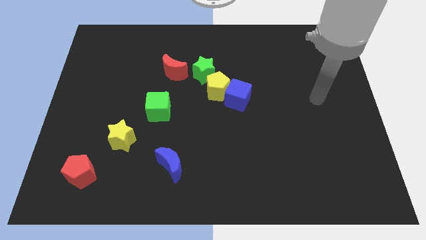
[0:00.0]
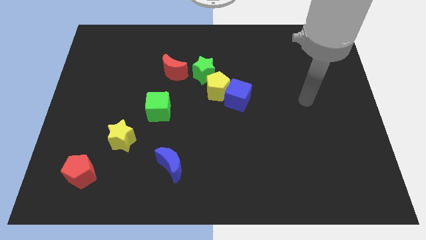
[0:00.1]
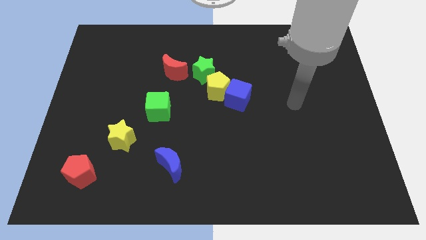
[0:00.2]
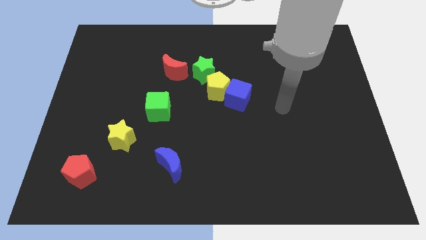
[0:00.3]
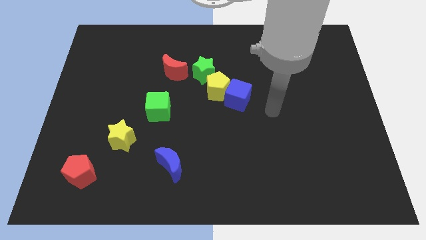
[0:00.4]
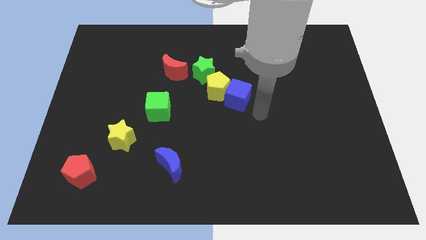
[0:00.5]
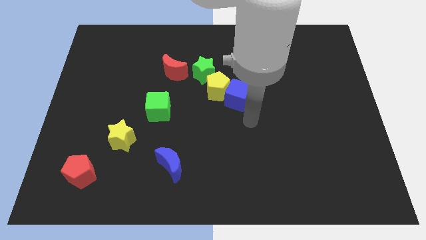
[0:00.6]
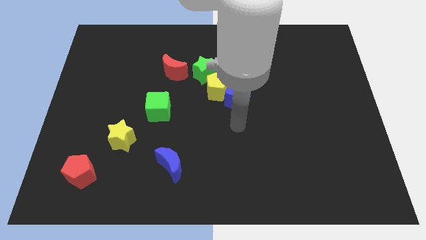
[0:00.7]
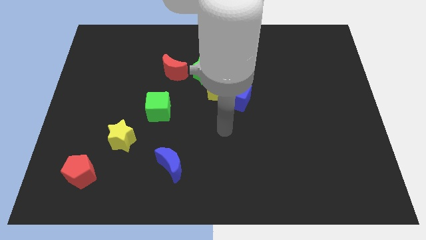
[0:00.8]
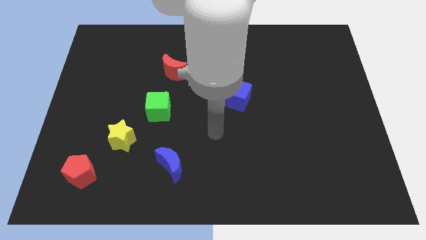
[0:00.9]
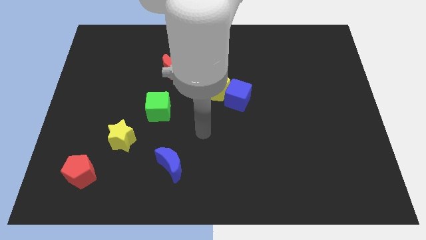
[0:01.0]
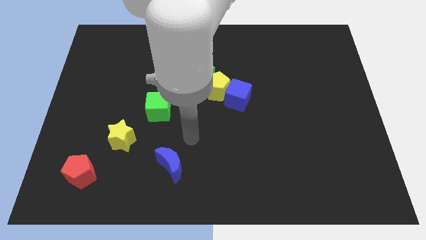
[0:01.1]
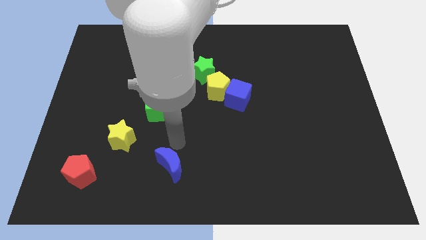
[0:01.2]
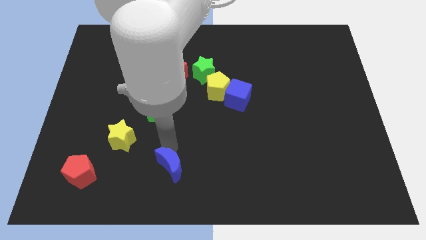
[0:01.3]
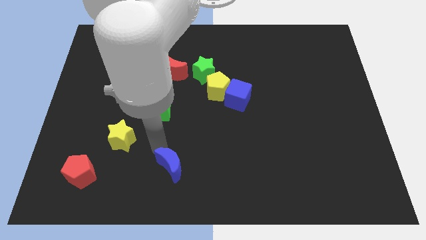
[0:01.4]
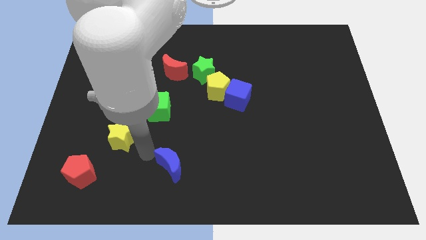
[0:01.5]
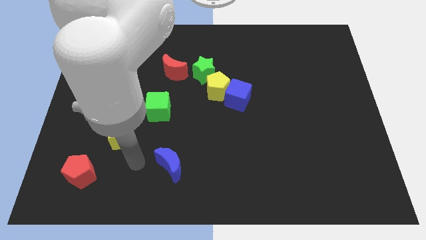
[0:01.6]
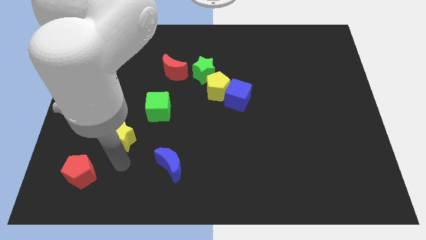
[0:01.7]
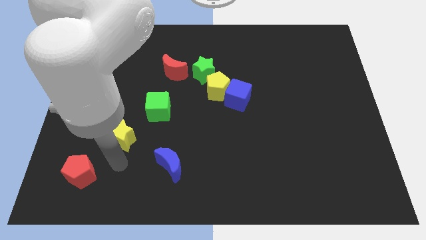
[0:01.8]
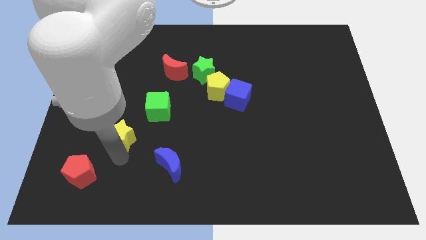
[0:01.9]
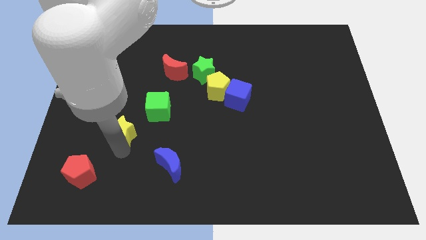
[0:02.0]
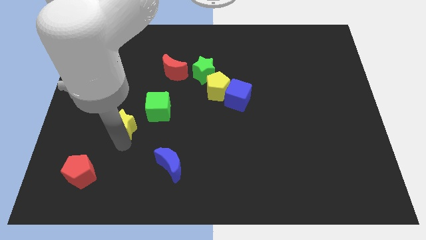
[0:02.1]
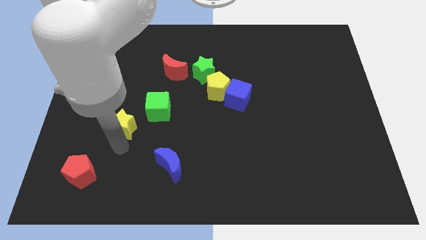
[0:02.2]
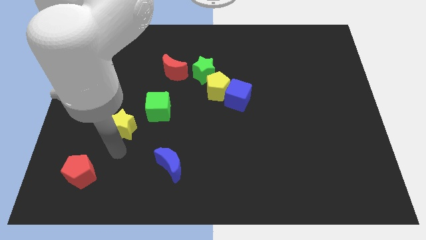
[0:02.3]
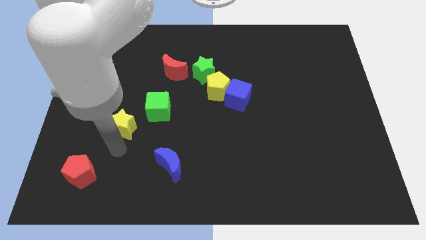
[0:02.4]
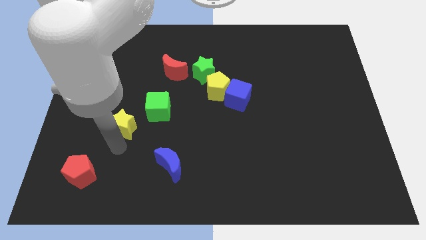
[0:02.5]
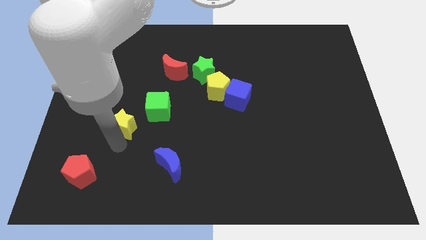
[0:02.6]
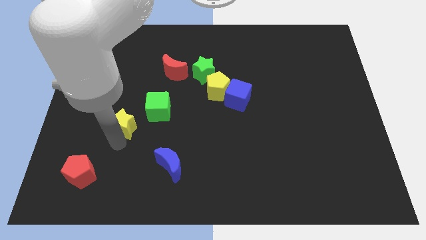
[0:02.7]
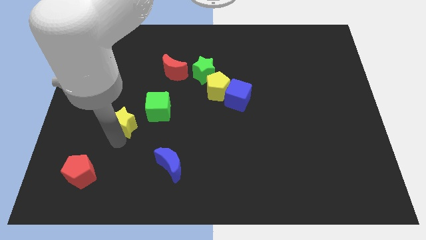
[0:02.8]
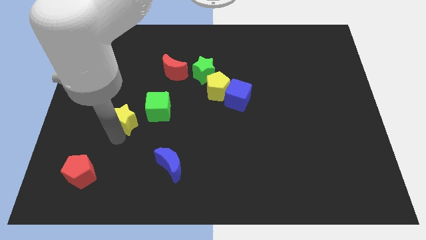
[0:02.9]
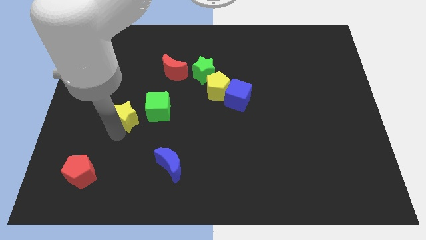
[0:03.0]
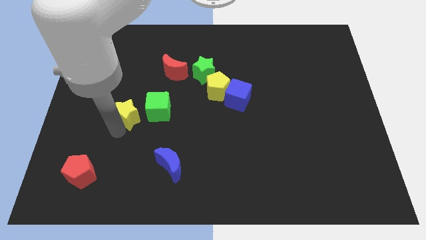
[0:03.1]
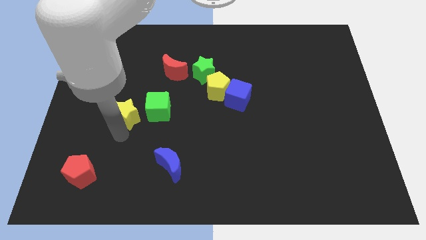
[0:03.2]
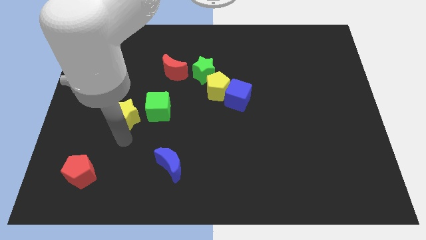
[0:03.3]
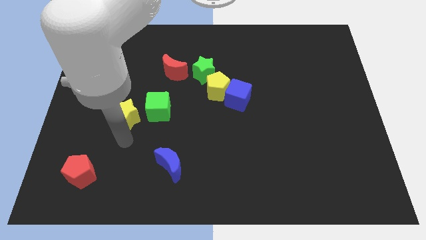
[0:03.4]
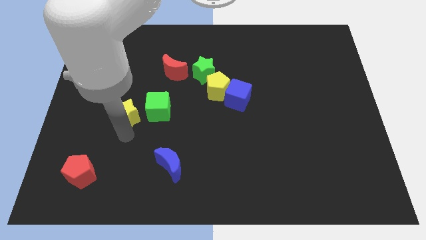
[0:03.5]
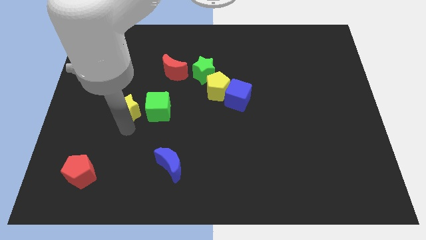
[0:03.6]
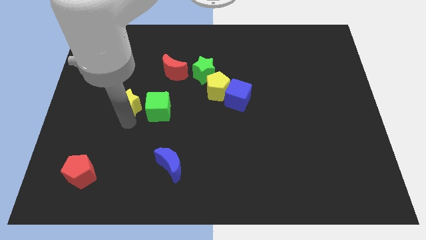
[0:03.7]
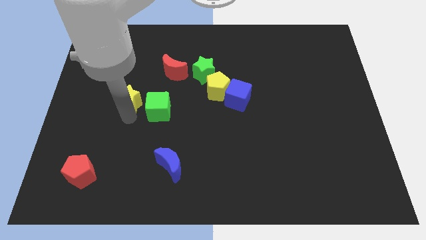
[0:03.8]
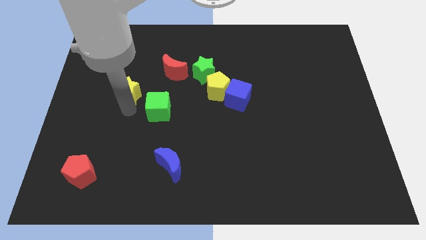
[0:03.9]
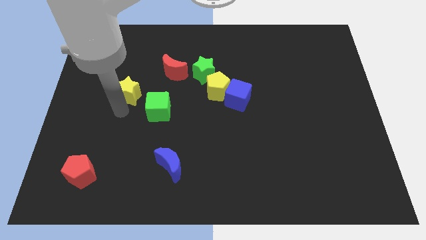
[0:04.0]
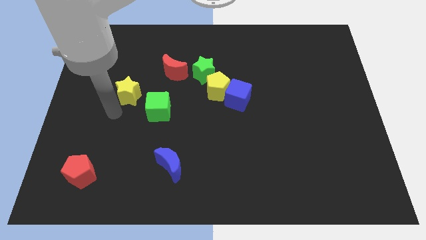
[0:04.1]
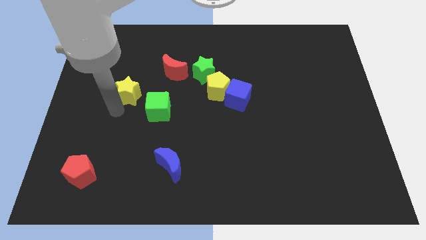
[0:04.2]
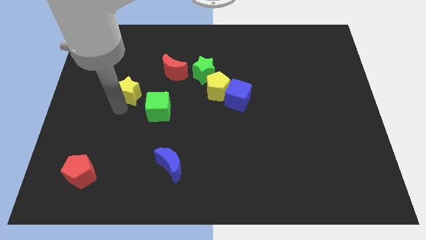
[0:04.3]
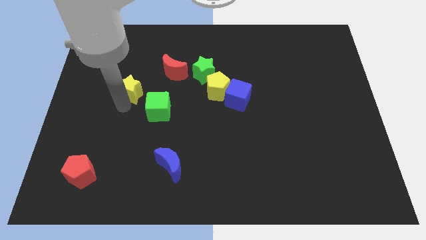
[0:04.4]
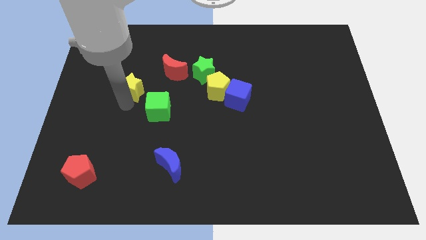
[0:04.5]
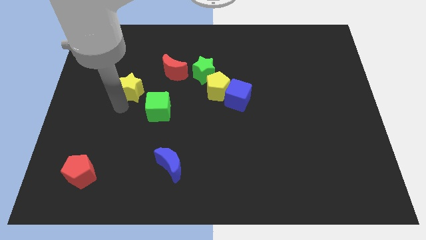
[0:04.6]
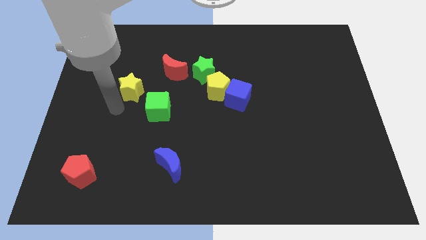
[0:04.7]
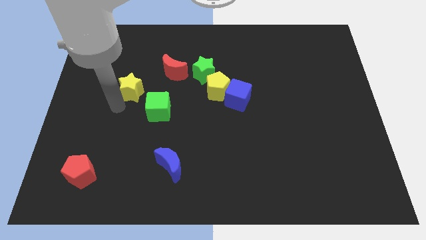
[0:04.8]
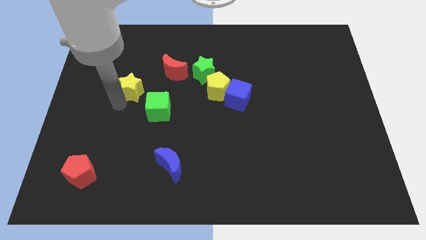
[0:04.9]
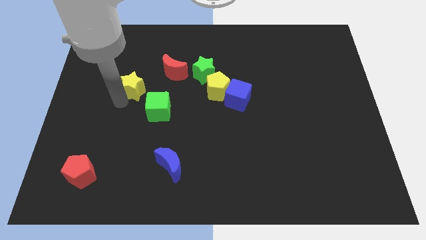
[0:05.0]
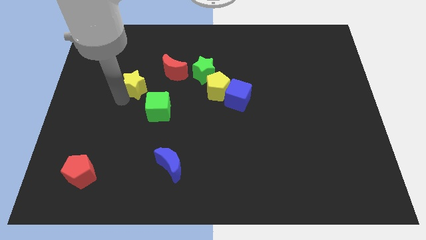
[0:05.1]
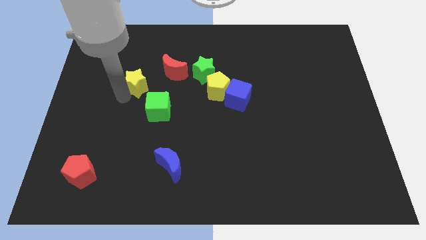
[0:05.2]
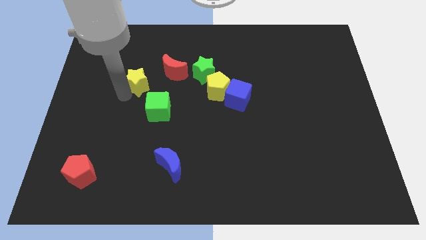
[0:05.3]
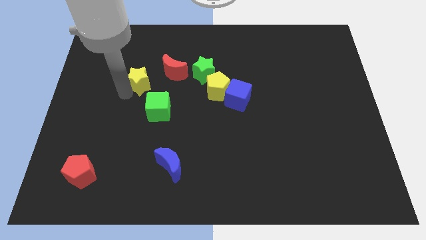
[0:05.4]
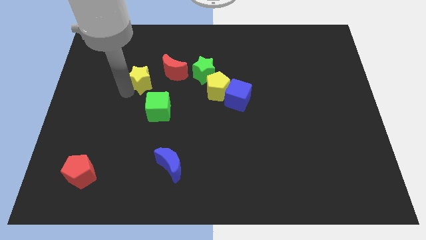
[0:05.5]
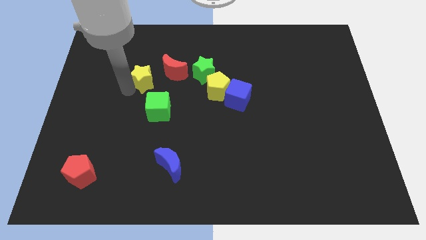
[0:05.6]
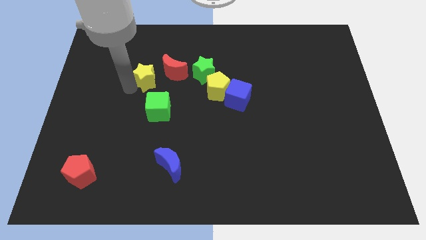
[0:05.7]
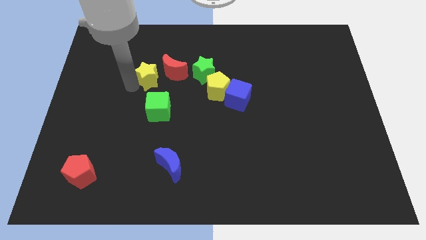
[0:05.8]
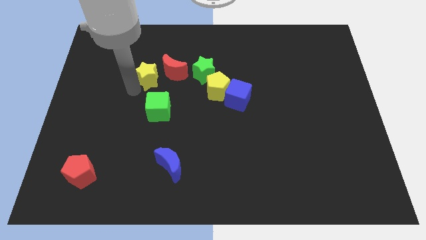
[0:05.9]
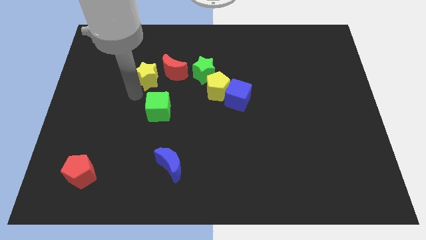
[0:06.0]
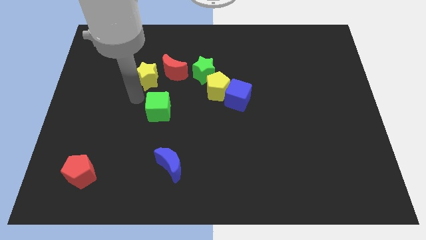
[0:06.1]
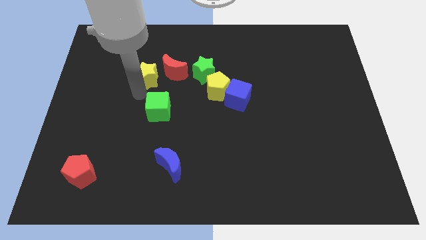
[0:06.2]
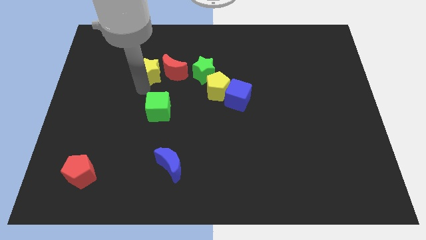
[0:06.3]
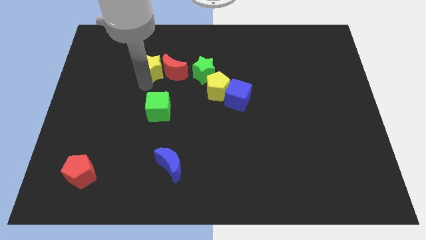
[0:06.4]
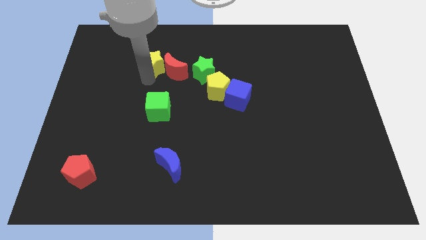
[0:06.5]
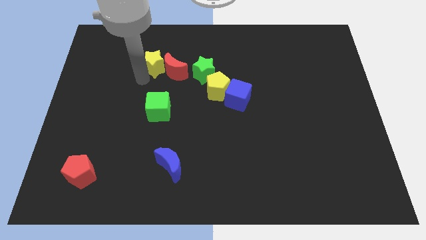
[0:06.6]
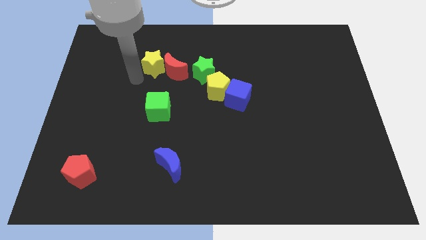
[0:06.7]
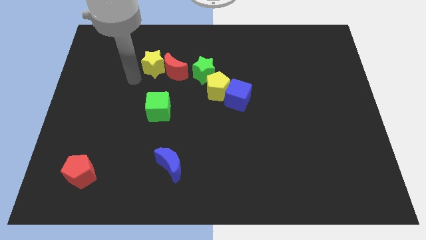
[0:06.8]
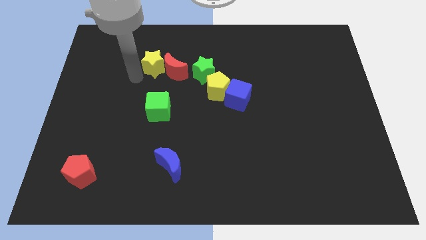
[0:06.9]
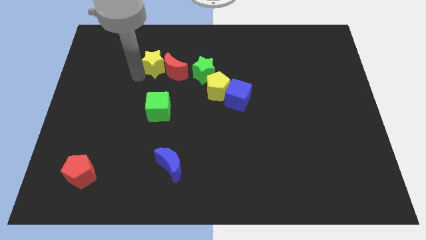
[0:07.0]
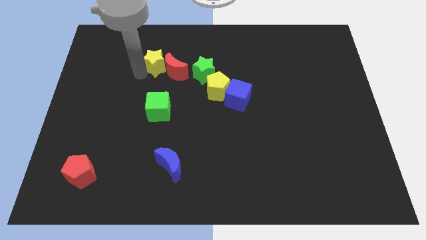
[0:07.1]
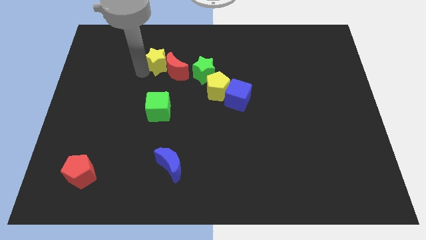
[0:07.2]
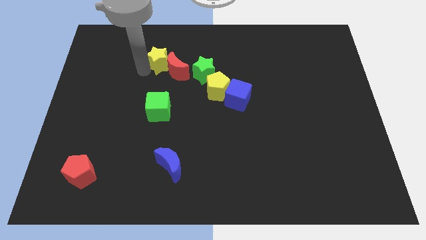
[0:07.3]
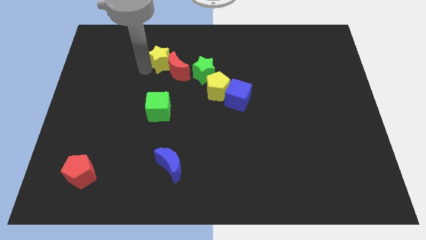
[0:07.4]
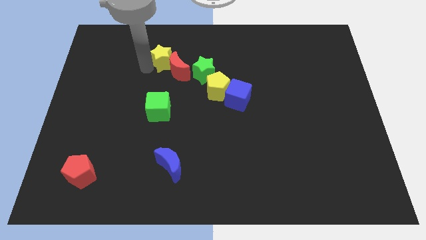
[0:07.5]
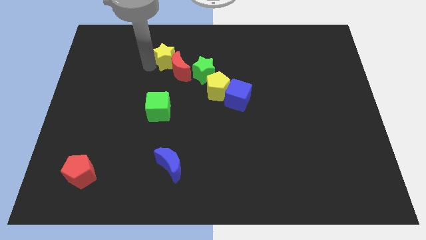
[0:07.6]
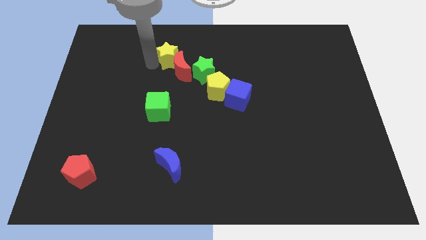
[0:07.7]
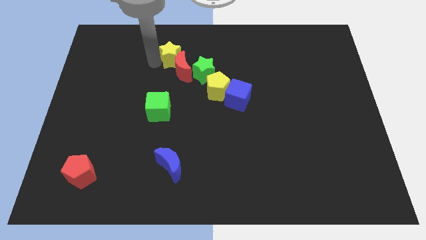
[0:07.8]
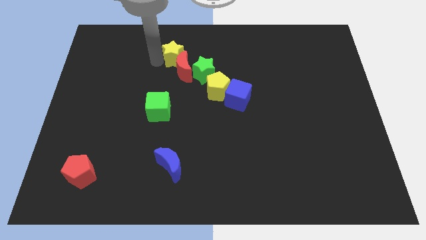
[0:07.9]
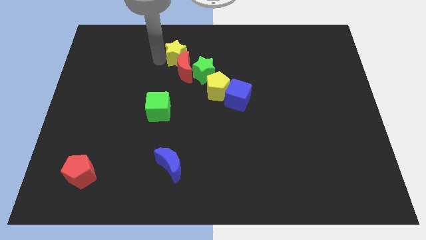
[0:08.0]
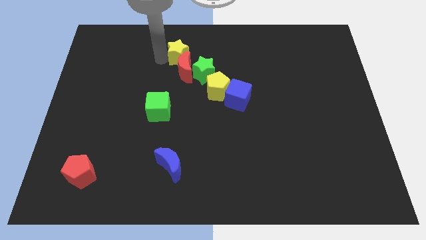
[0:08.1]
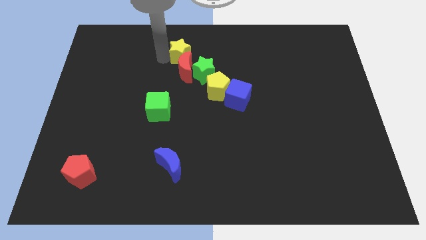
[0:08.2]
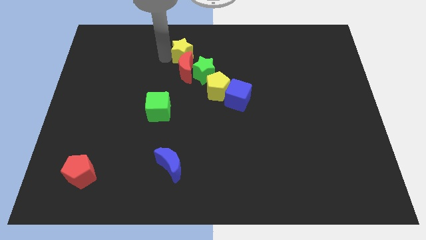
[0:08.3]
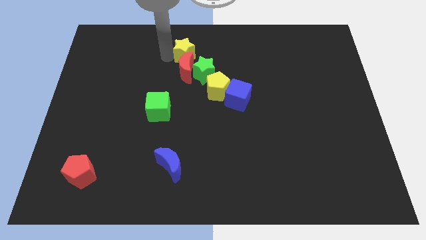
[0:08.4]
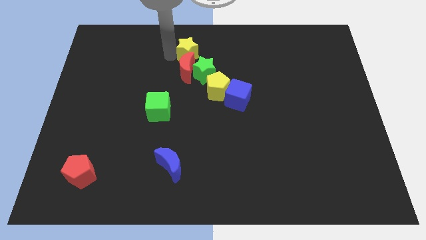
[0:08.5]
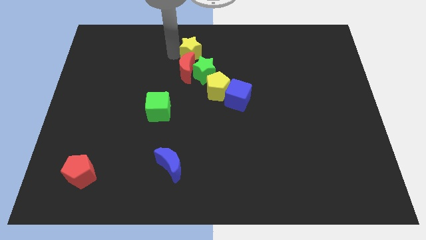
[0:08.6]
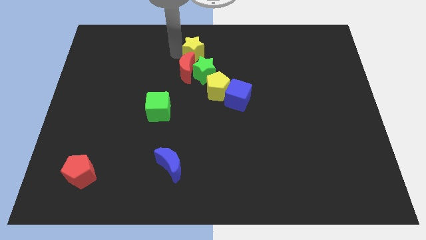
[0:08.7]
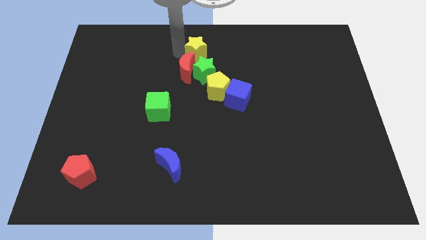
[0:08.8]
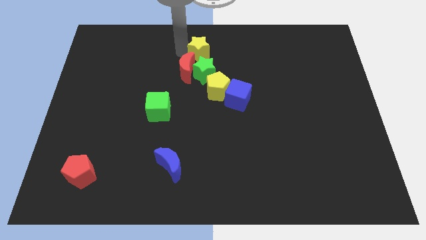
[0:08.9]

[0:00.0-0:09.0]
move the yellow star to the top side of the yellow pentagon
